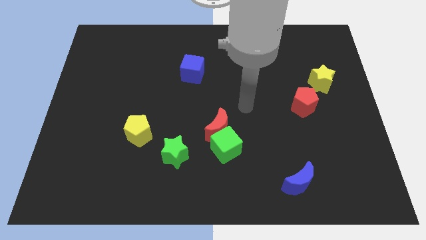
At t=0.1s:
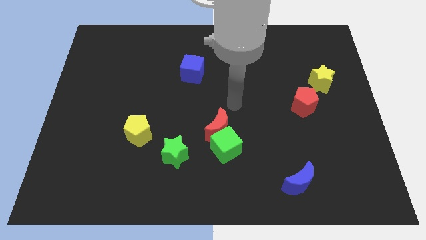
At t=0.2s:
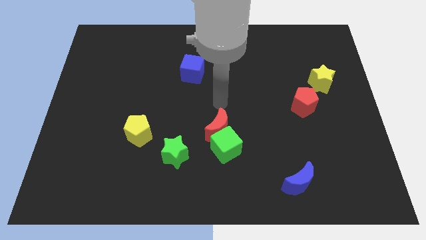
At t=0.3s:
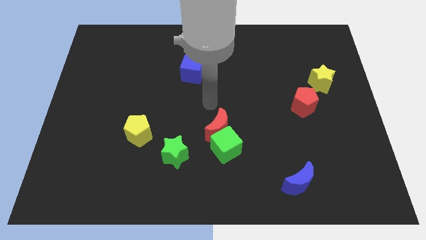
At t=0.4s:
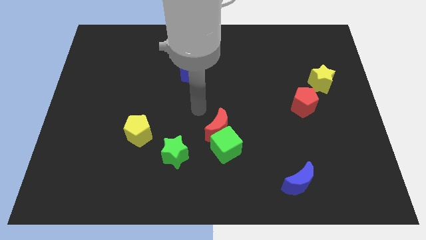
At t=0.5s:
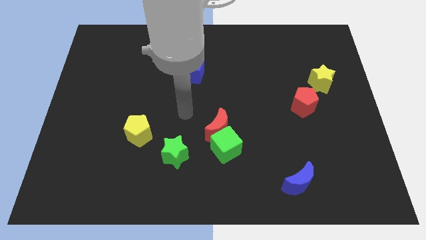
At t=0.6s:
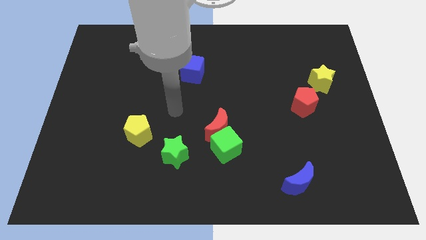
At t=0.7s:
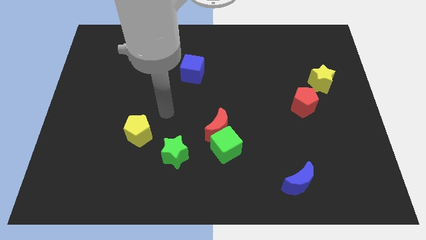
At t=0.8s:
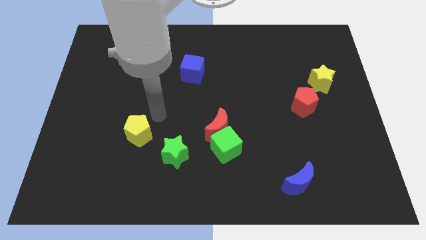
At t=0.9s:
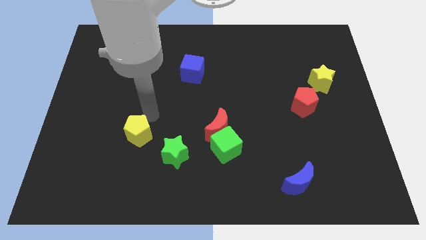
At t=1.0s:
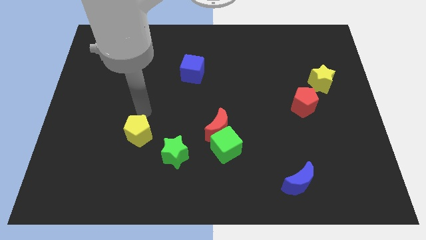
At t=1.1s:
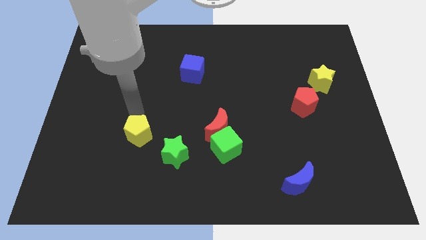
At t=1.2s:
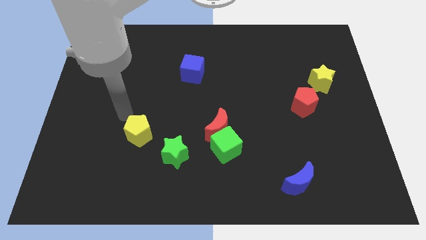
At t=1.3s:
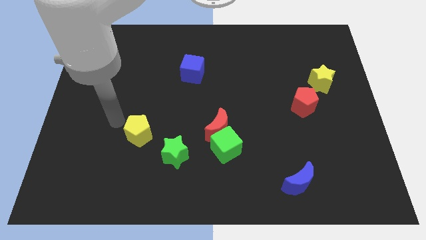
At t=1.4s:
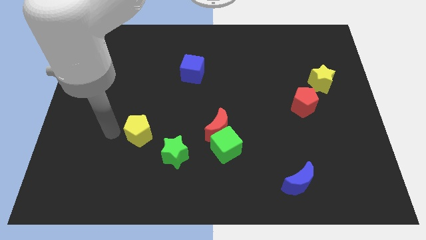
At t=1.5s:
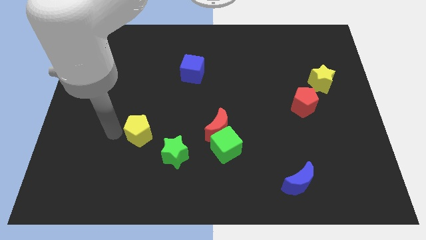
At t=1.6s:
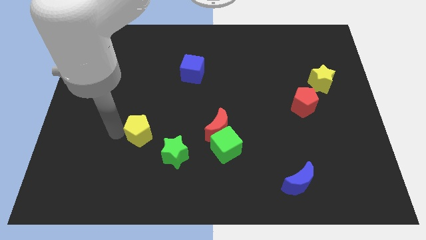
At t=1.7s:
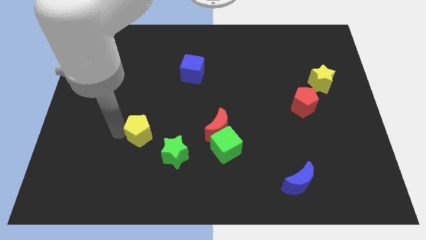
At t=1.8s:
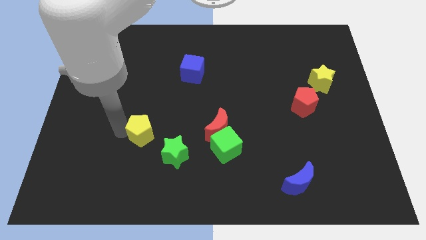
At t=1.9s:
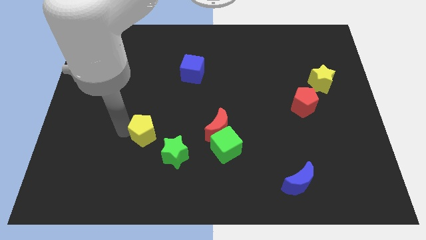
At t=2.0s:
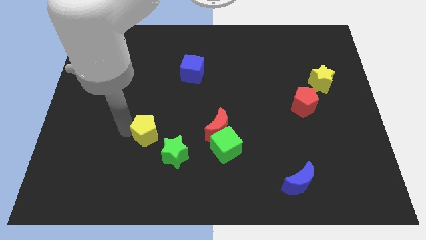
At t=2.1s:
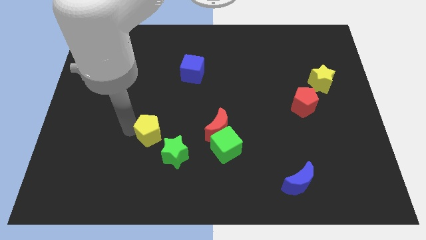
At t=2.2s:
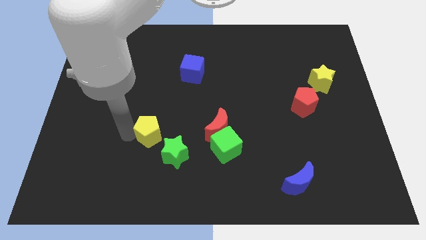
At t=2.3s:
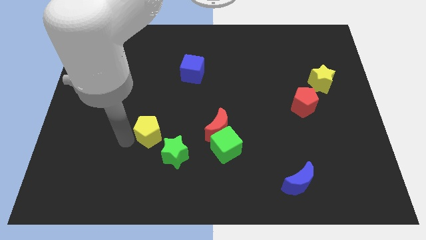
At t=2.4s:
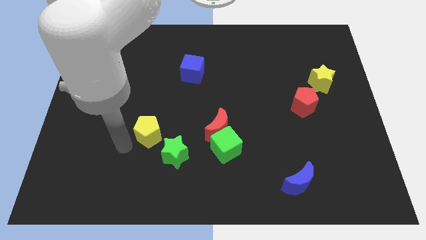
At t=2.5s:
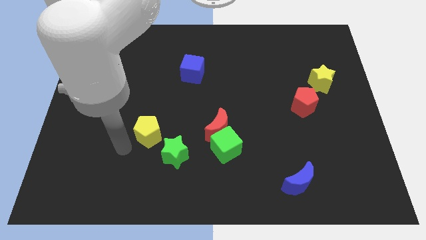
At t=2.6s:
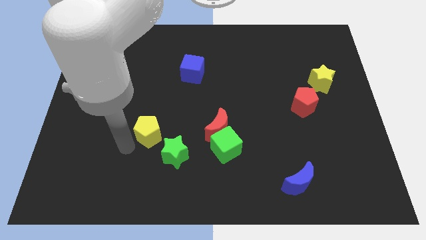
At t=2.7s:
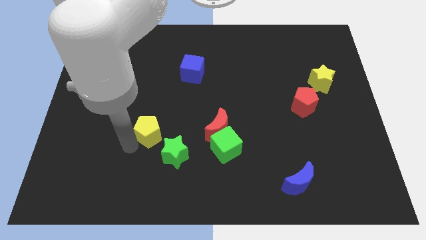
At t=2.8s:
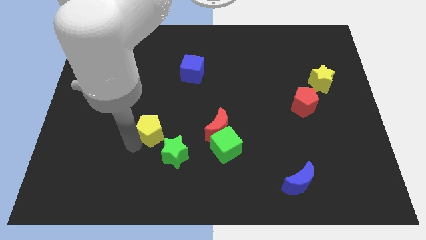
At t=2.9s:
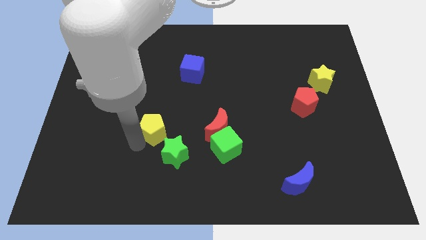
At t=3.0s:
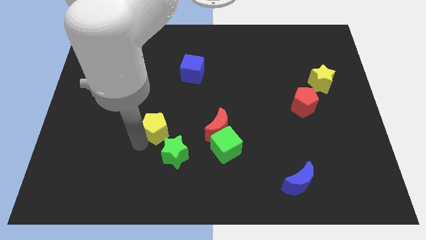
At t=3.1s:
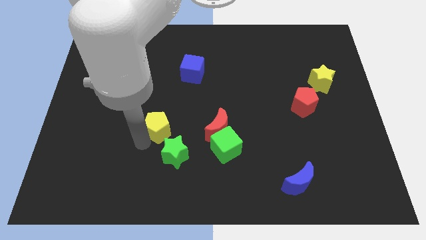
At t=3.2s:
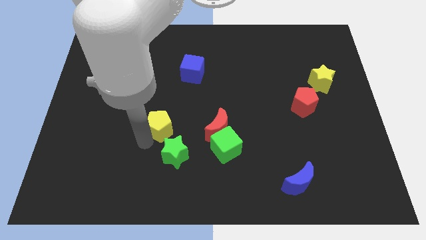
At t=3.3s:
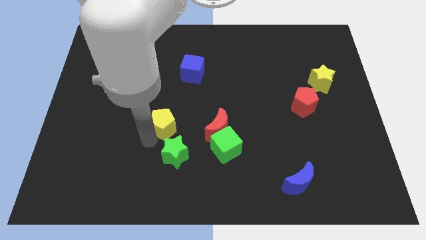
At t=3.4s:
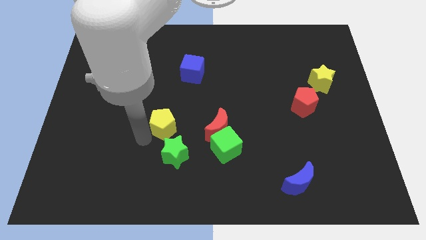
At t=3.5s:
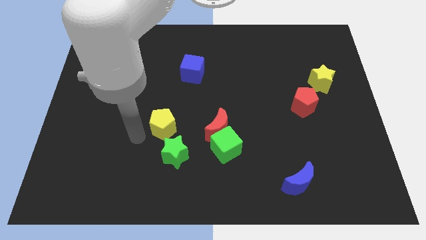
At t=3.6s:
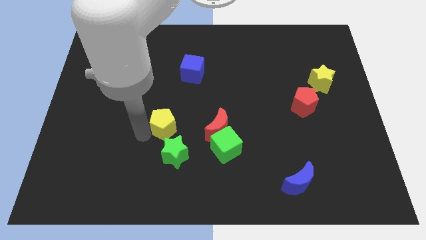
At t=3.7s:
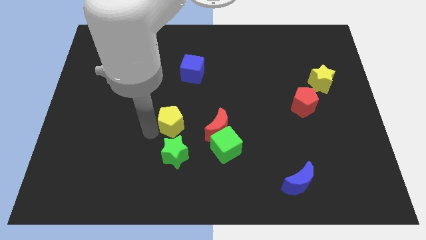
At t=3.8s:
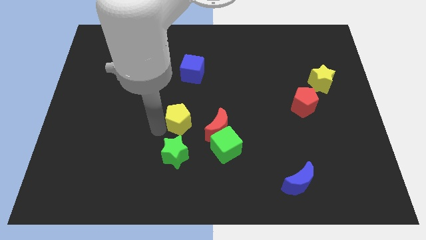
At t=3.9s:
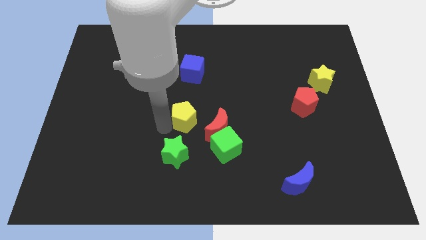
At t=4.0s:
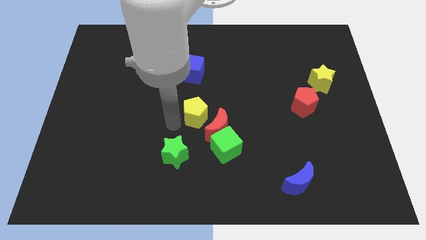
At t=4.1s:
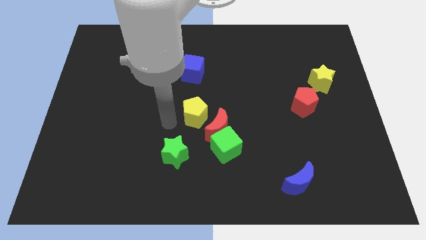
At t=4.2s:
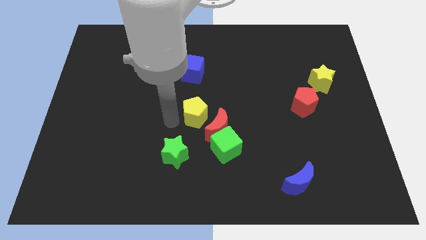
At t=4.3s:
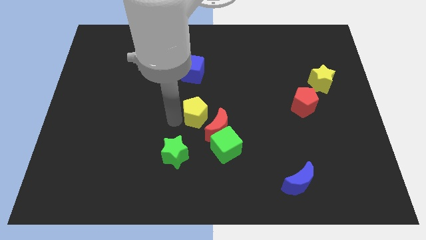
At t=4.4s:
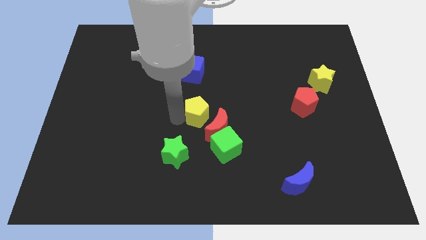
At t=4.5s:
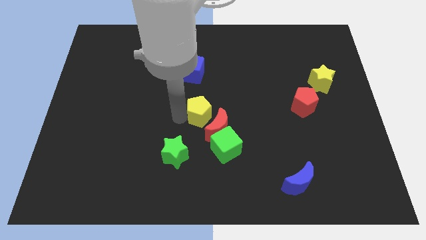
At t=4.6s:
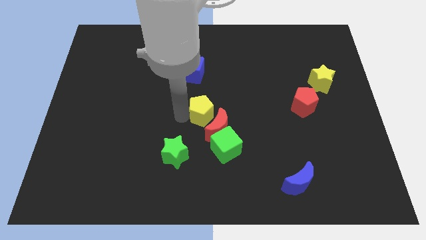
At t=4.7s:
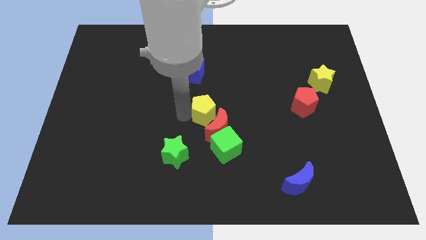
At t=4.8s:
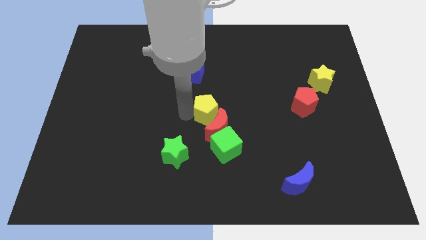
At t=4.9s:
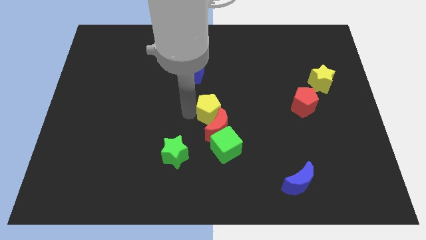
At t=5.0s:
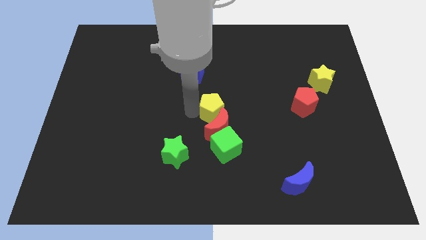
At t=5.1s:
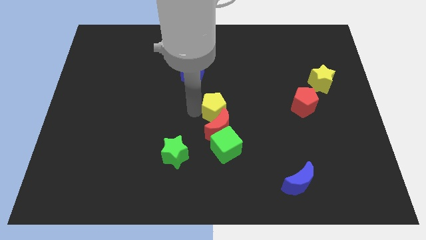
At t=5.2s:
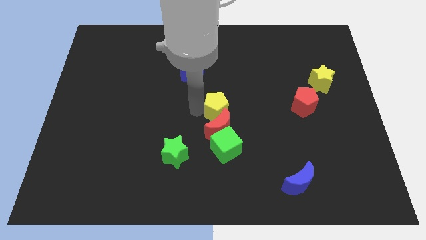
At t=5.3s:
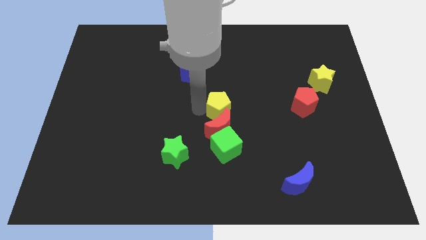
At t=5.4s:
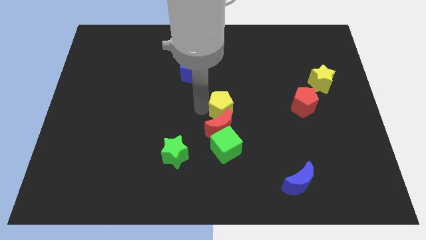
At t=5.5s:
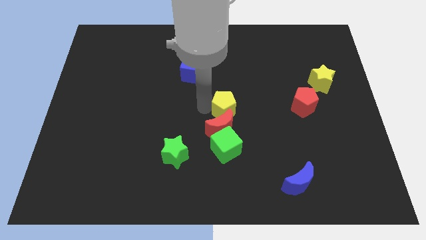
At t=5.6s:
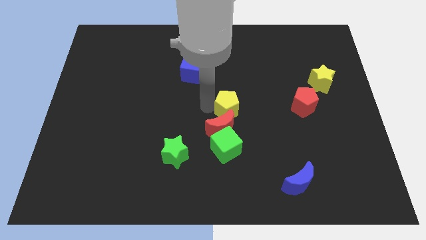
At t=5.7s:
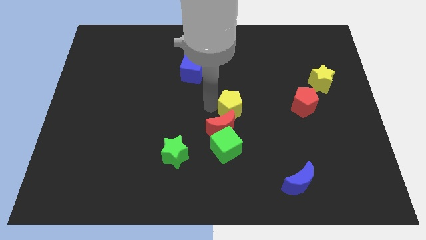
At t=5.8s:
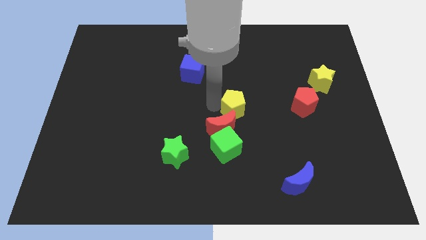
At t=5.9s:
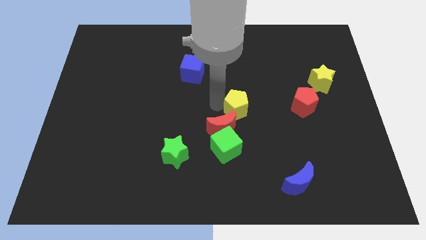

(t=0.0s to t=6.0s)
push the yellow pentagon to the right

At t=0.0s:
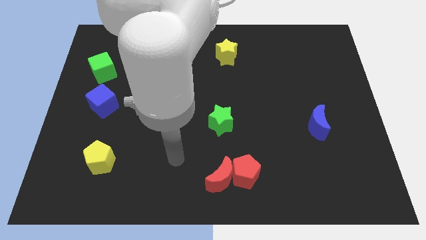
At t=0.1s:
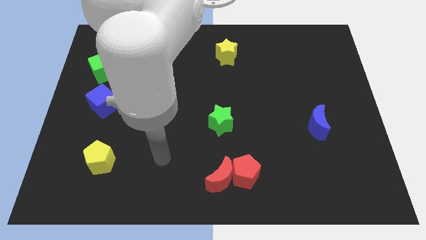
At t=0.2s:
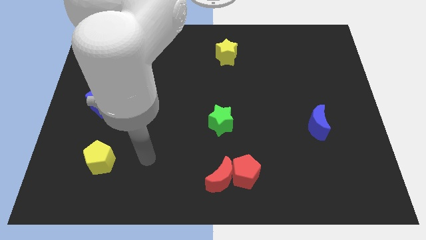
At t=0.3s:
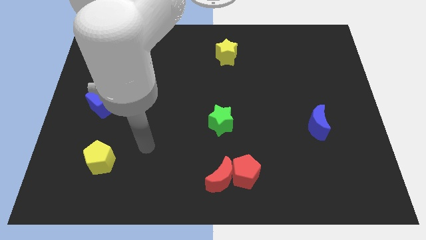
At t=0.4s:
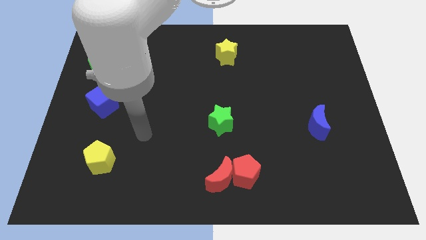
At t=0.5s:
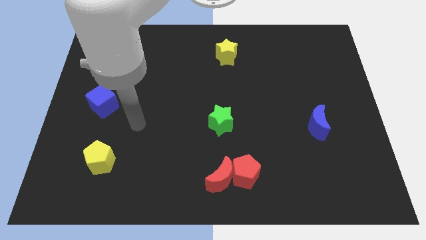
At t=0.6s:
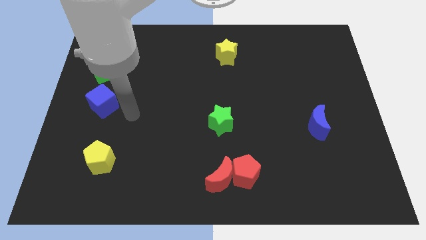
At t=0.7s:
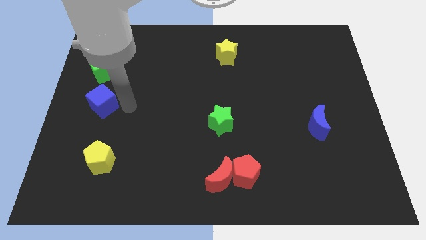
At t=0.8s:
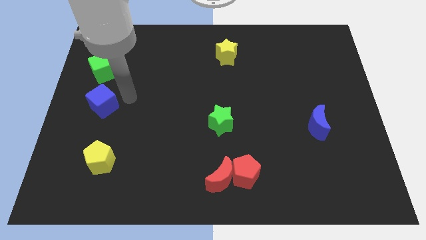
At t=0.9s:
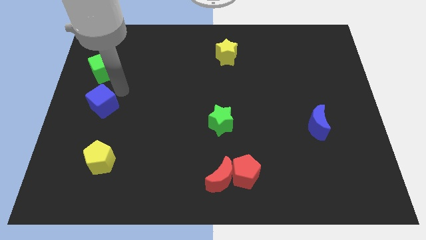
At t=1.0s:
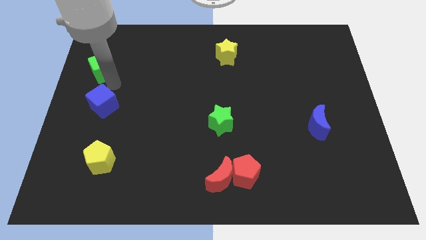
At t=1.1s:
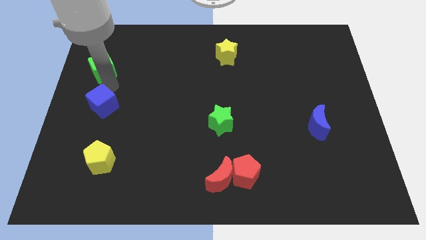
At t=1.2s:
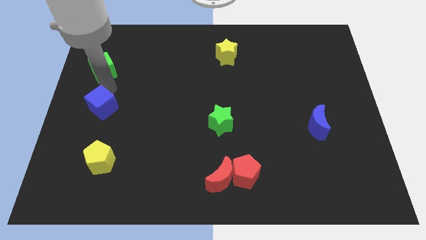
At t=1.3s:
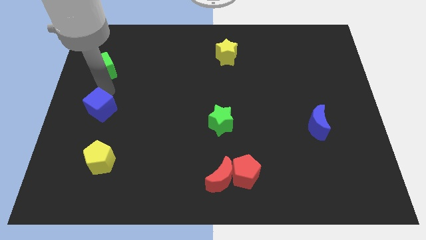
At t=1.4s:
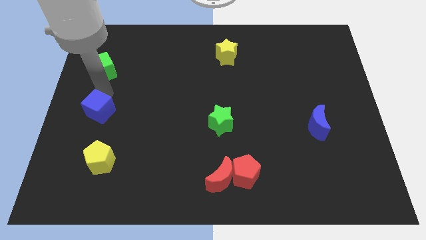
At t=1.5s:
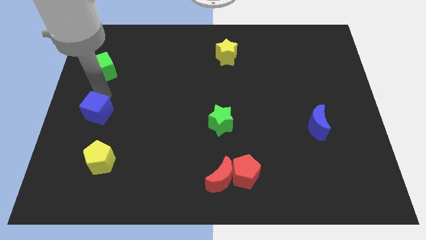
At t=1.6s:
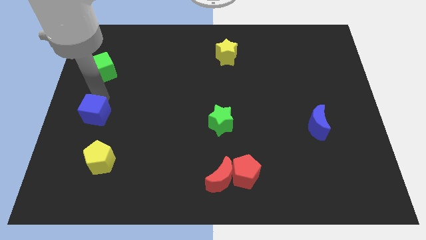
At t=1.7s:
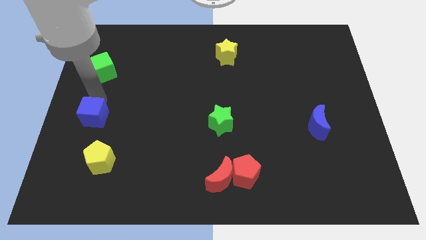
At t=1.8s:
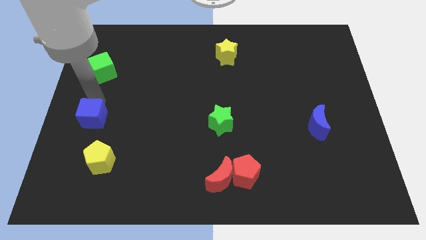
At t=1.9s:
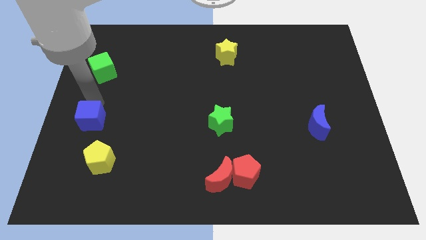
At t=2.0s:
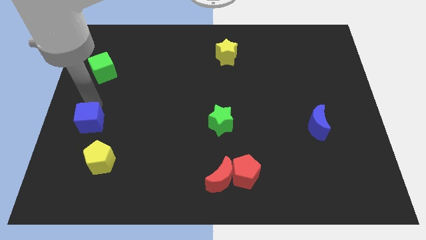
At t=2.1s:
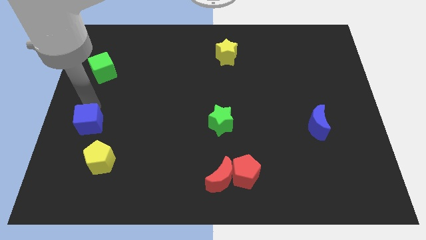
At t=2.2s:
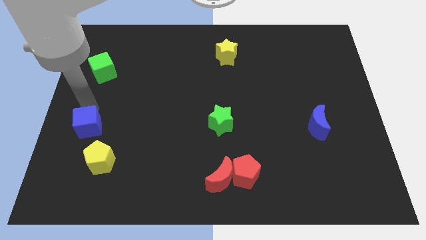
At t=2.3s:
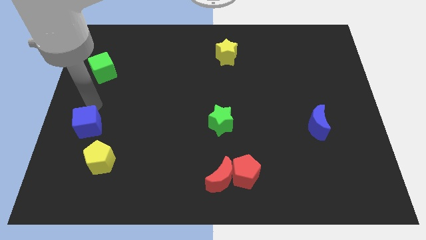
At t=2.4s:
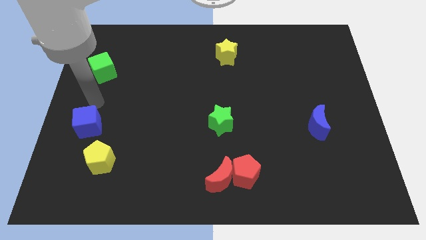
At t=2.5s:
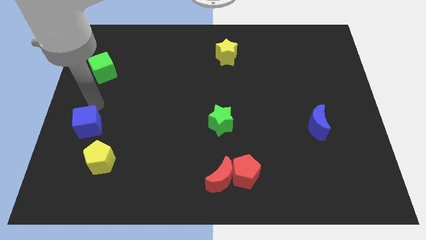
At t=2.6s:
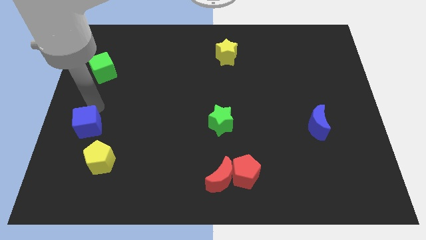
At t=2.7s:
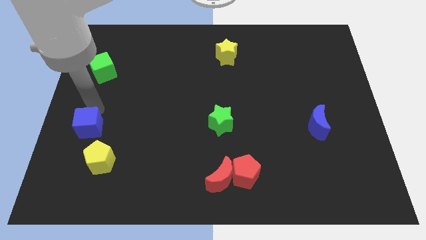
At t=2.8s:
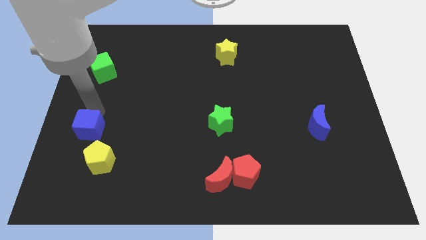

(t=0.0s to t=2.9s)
move the blue cube slightly down
